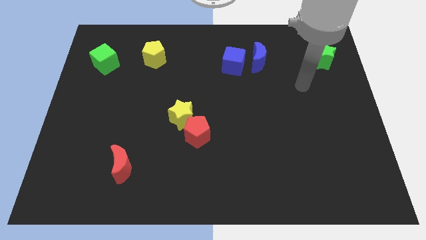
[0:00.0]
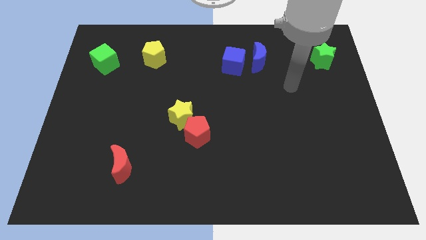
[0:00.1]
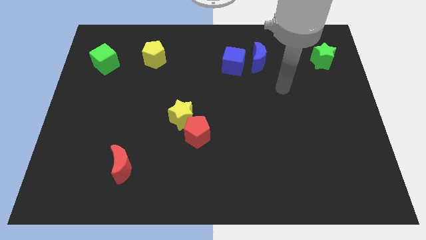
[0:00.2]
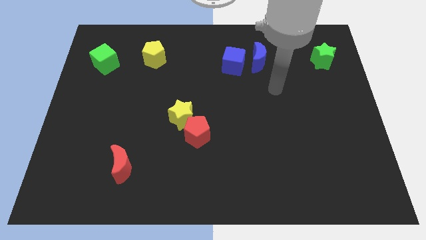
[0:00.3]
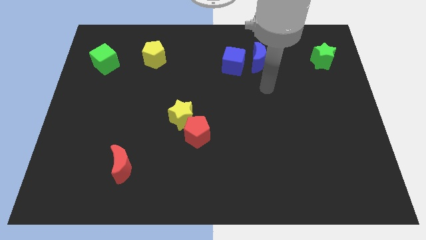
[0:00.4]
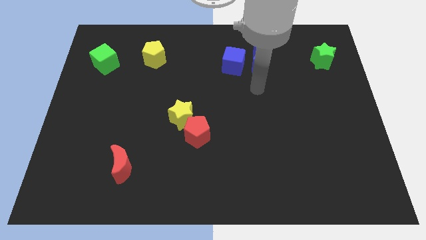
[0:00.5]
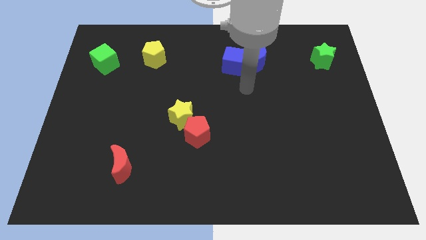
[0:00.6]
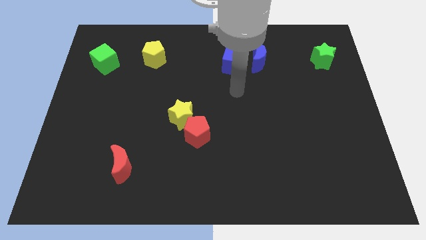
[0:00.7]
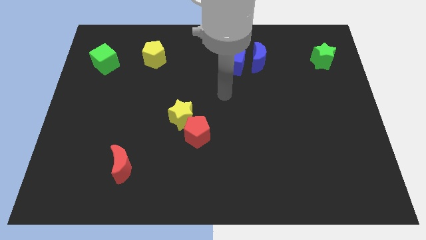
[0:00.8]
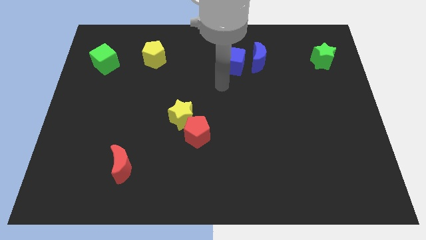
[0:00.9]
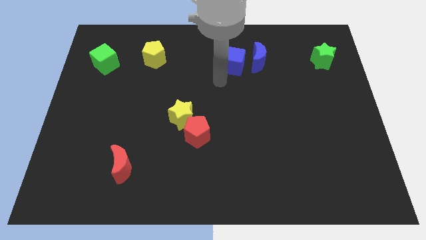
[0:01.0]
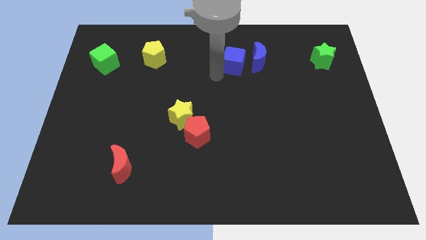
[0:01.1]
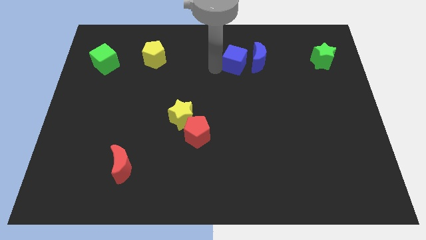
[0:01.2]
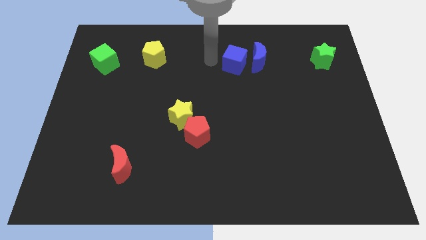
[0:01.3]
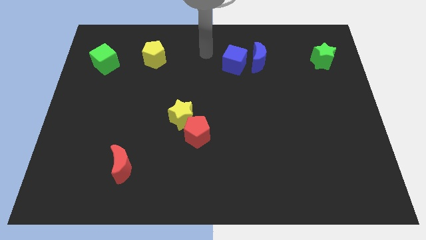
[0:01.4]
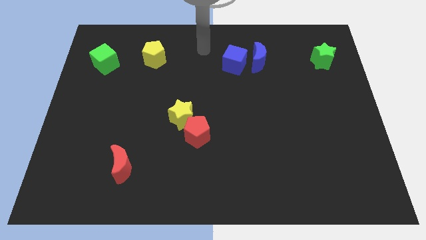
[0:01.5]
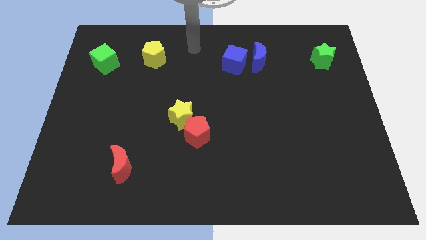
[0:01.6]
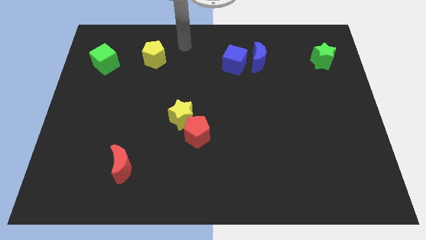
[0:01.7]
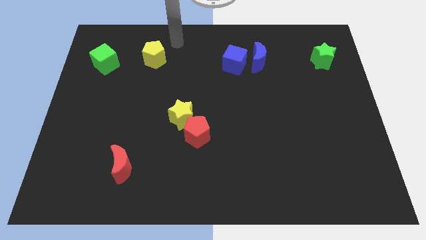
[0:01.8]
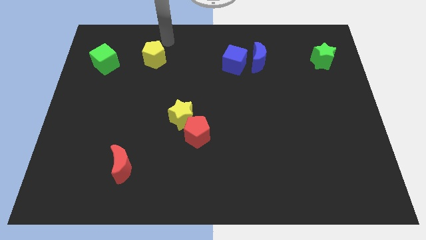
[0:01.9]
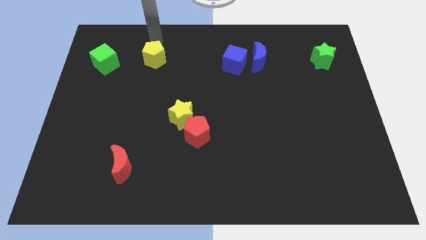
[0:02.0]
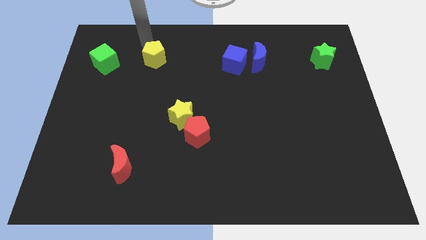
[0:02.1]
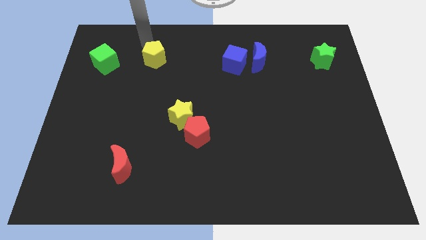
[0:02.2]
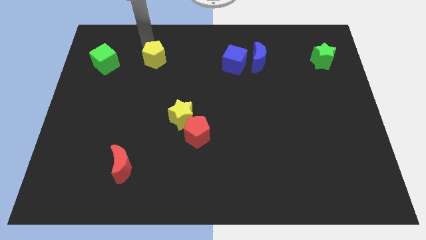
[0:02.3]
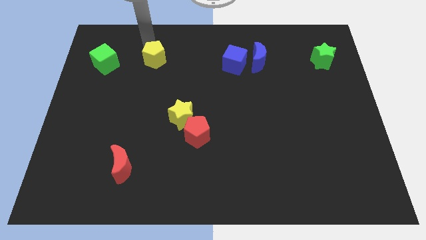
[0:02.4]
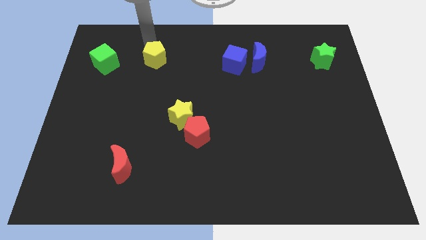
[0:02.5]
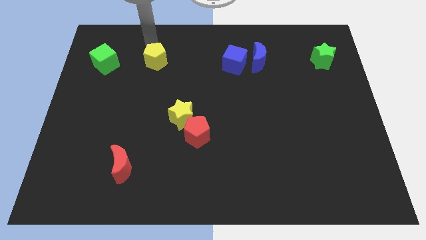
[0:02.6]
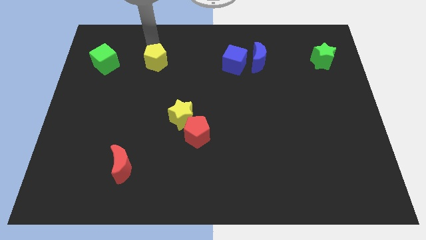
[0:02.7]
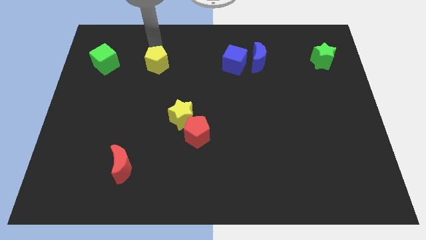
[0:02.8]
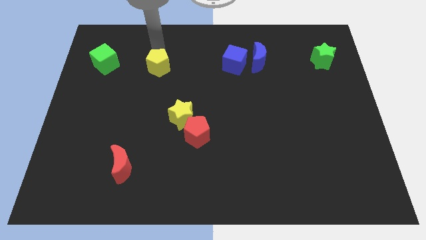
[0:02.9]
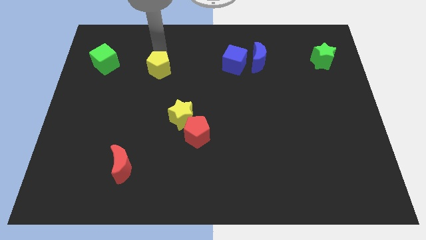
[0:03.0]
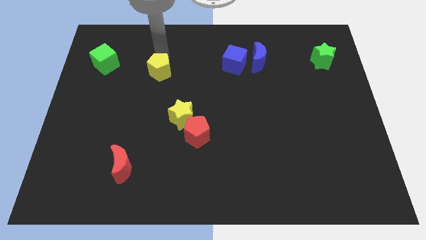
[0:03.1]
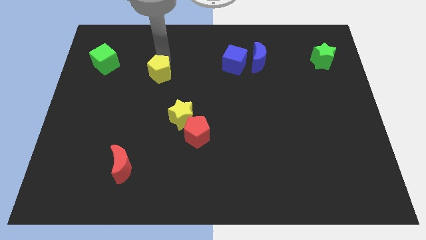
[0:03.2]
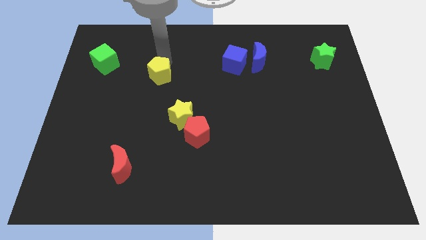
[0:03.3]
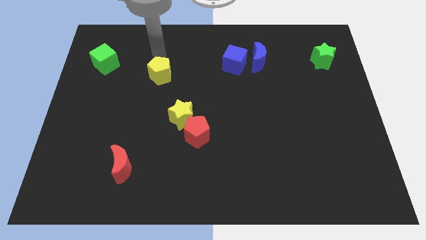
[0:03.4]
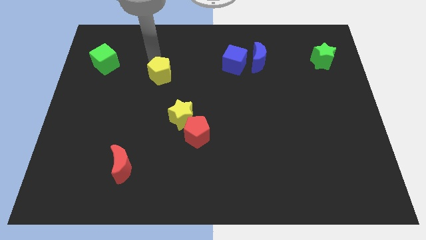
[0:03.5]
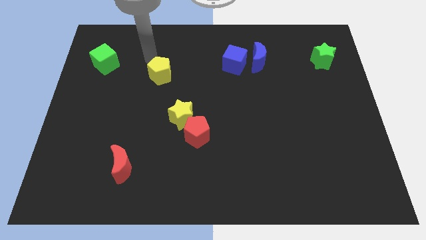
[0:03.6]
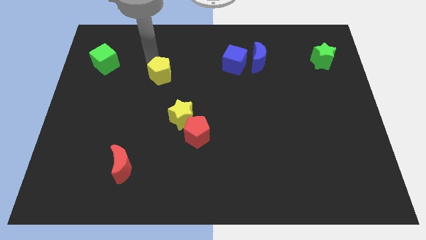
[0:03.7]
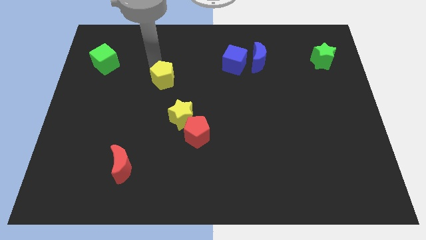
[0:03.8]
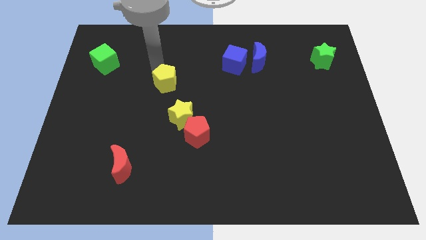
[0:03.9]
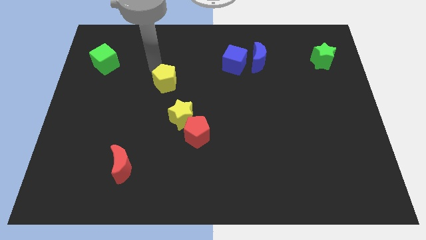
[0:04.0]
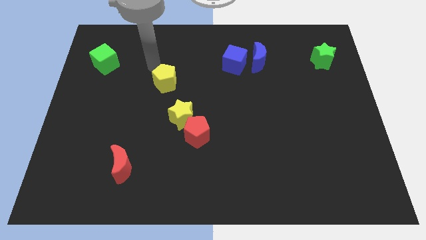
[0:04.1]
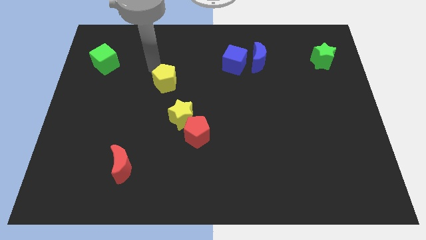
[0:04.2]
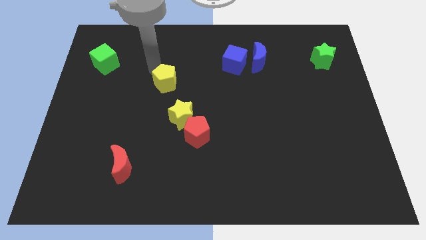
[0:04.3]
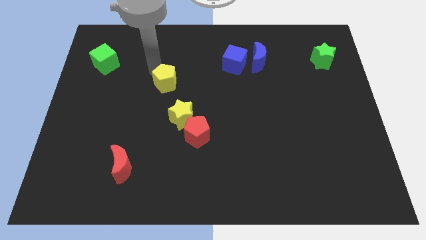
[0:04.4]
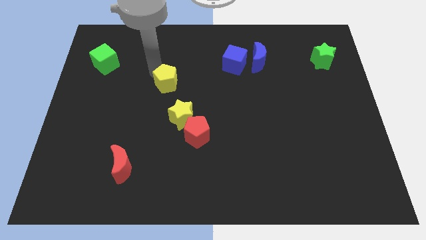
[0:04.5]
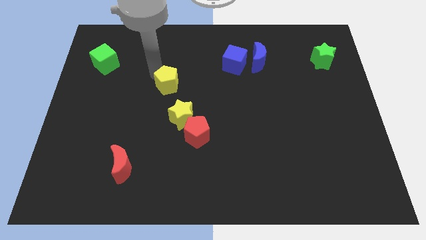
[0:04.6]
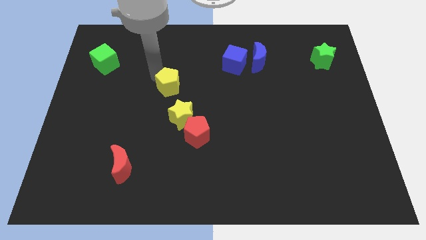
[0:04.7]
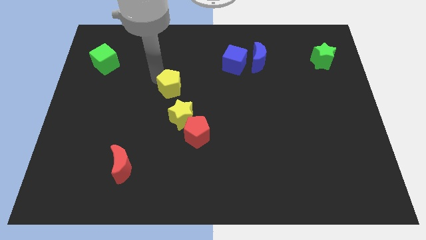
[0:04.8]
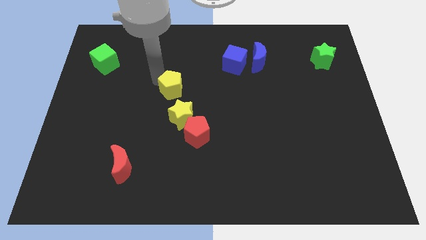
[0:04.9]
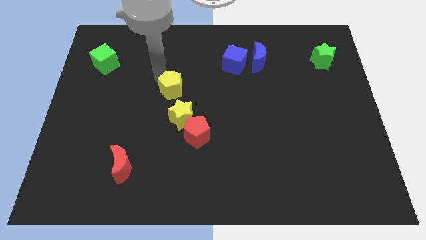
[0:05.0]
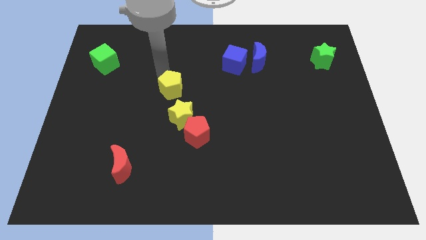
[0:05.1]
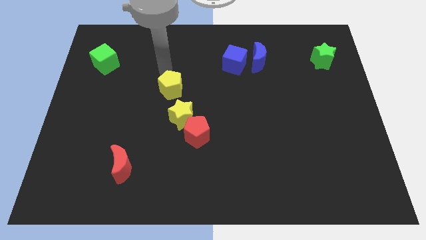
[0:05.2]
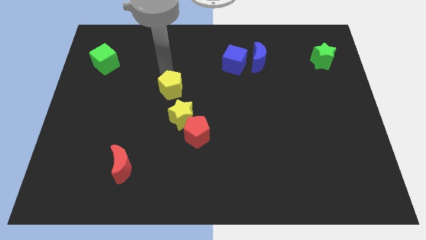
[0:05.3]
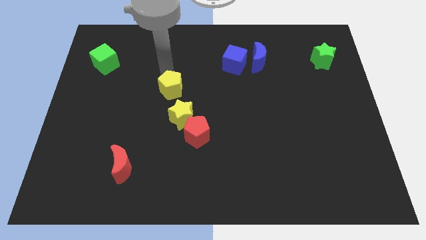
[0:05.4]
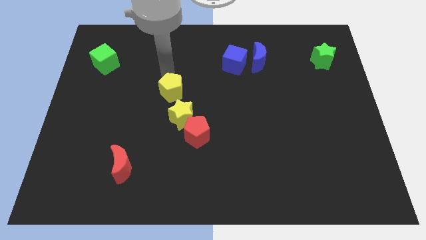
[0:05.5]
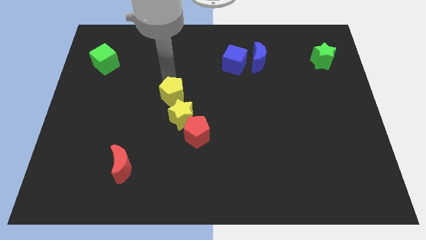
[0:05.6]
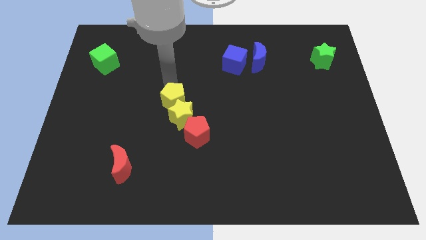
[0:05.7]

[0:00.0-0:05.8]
push the yellow pentagon to the yellow star

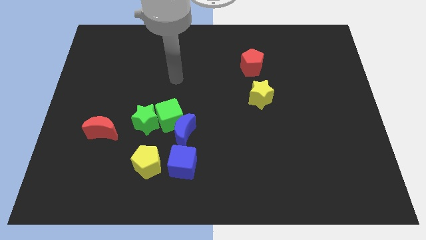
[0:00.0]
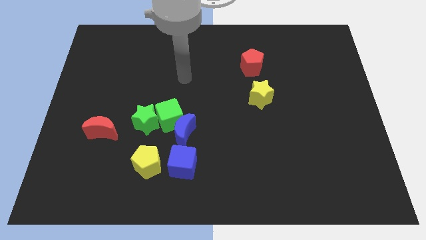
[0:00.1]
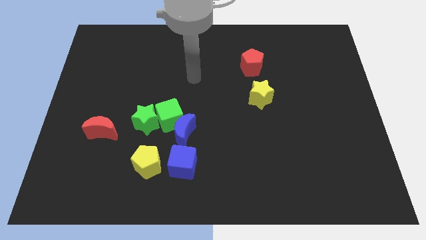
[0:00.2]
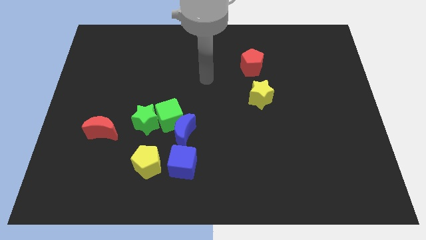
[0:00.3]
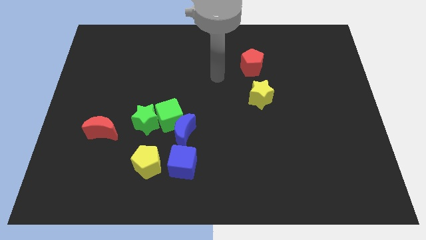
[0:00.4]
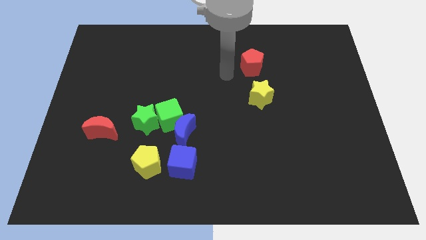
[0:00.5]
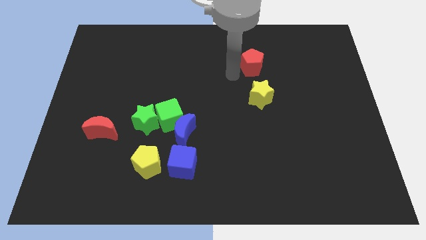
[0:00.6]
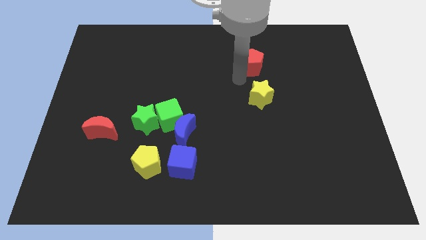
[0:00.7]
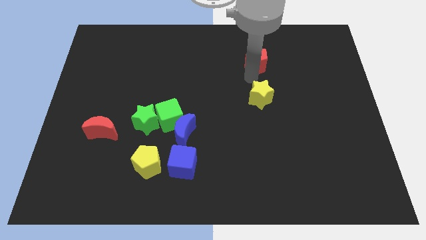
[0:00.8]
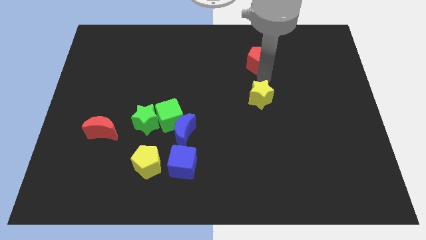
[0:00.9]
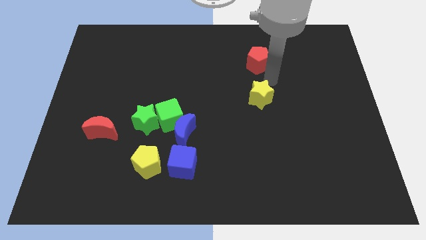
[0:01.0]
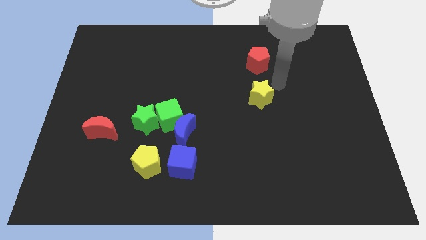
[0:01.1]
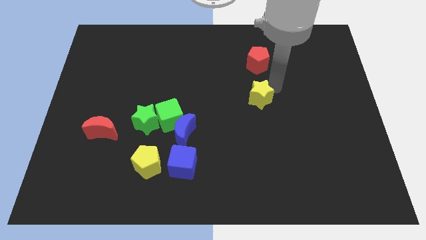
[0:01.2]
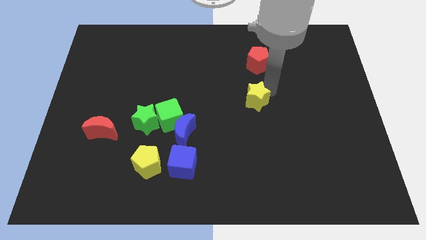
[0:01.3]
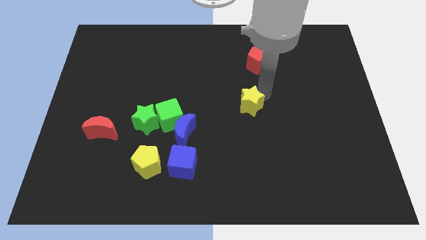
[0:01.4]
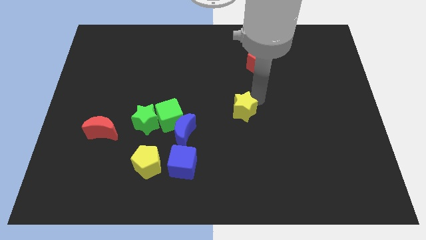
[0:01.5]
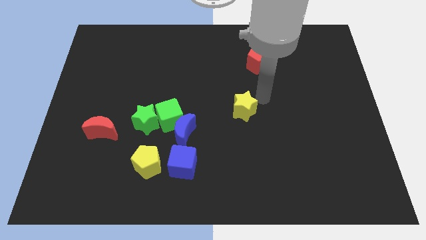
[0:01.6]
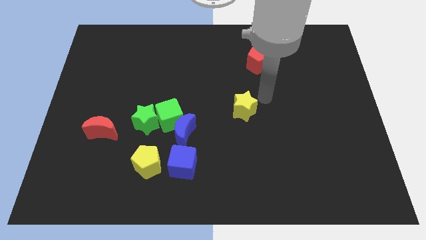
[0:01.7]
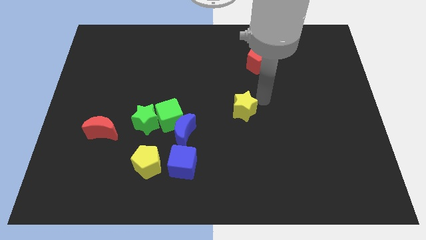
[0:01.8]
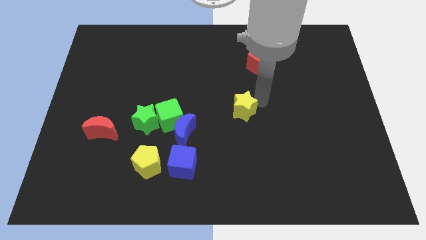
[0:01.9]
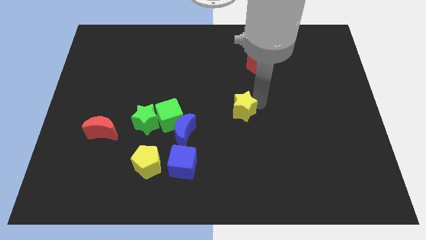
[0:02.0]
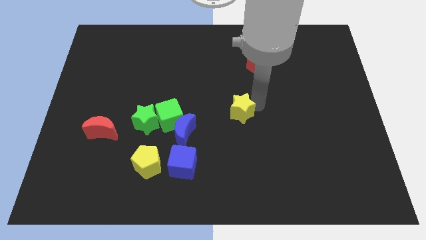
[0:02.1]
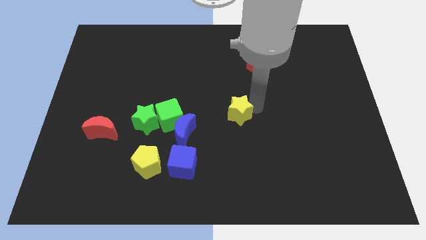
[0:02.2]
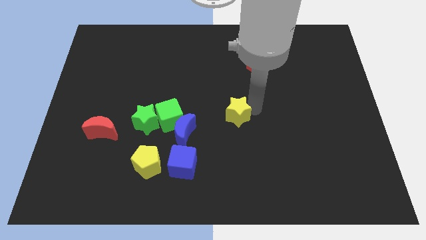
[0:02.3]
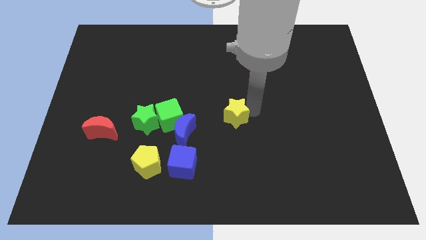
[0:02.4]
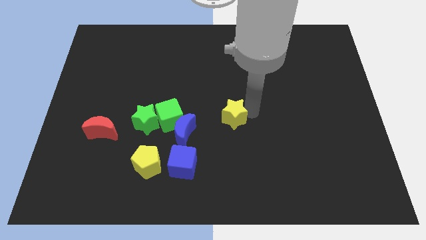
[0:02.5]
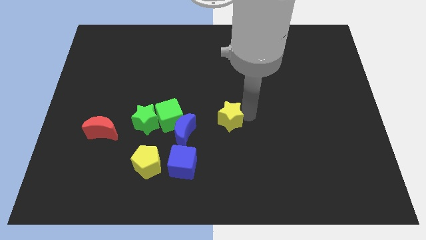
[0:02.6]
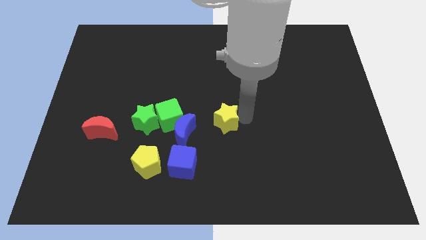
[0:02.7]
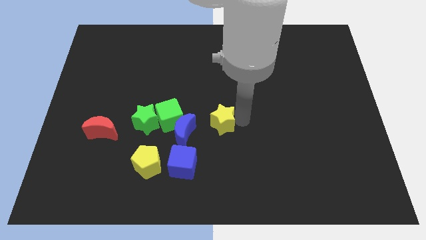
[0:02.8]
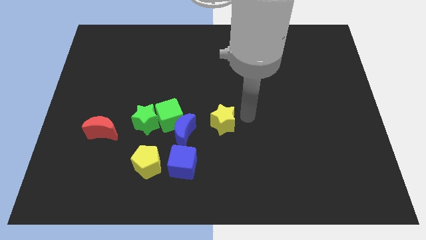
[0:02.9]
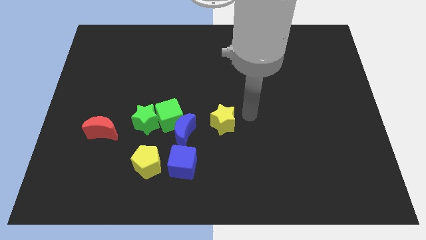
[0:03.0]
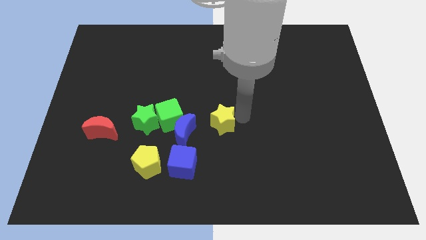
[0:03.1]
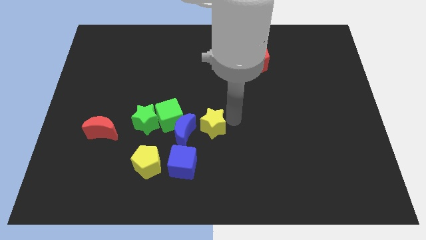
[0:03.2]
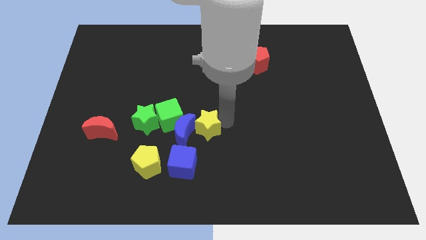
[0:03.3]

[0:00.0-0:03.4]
move the yellow star to the blue moon
